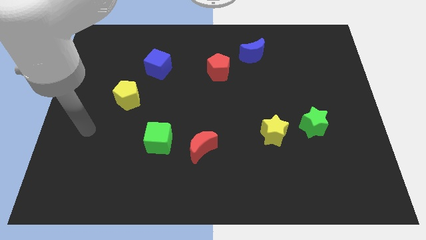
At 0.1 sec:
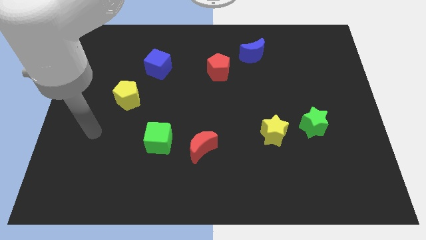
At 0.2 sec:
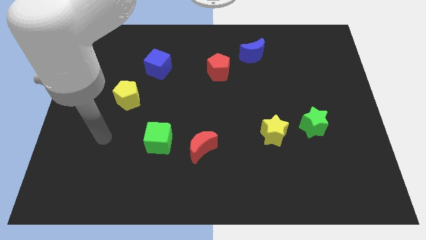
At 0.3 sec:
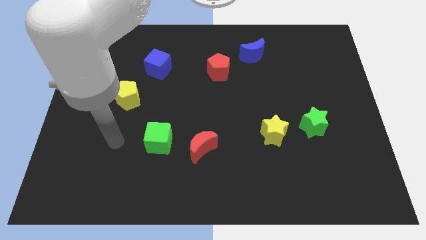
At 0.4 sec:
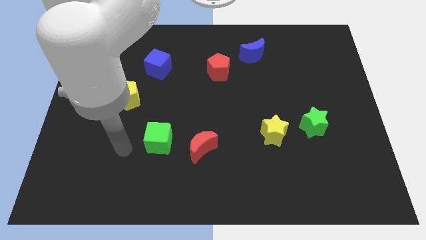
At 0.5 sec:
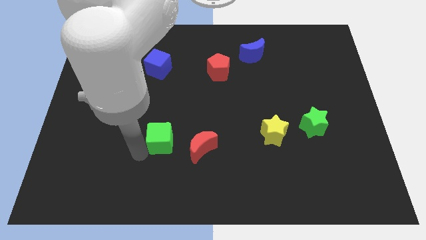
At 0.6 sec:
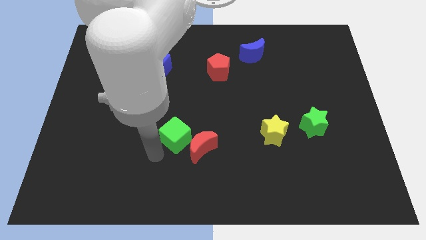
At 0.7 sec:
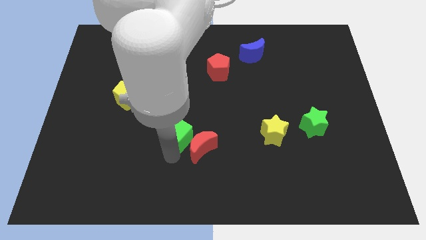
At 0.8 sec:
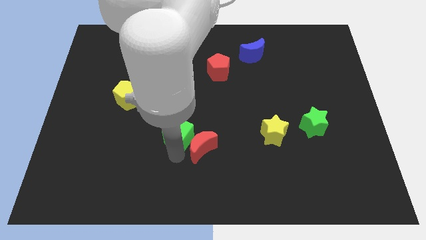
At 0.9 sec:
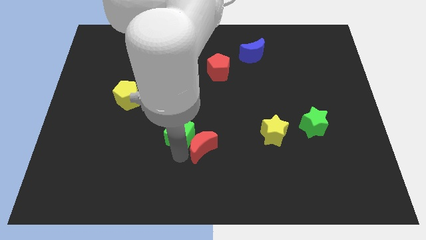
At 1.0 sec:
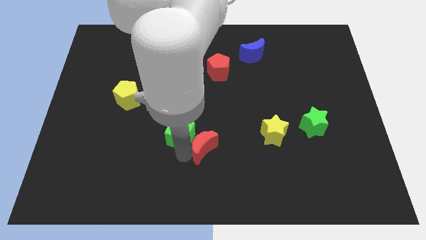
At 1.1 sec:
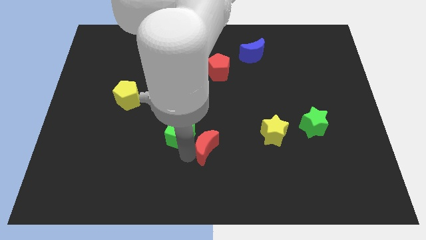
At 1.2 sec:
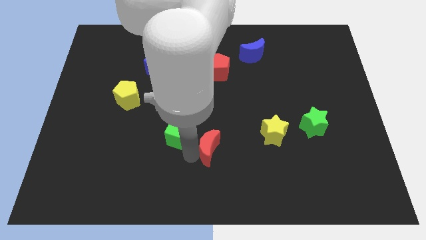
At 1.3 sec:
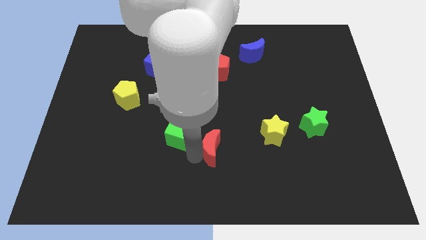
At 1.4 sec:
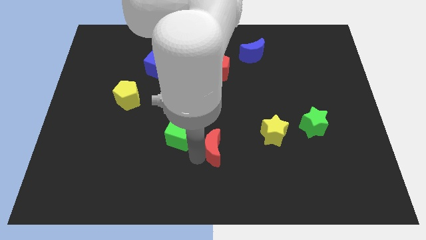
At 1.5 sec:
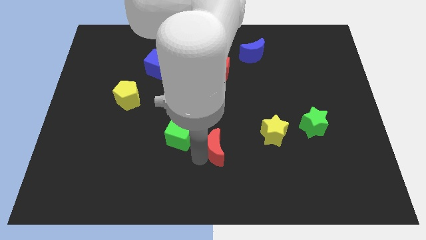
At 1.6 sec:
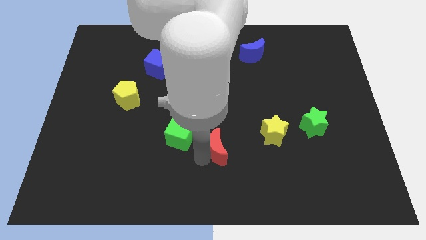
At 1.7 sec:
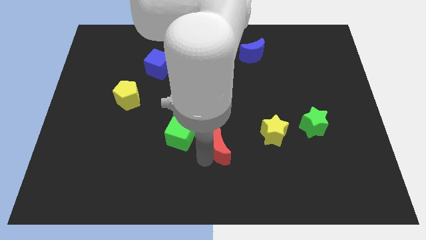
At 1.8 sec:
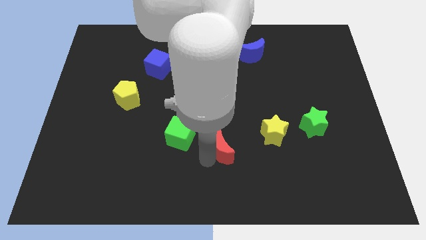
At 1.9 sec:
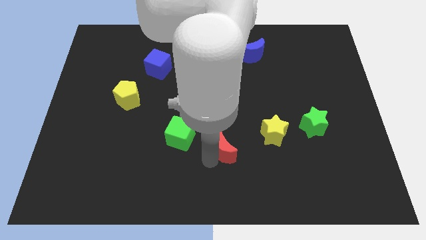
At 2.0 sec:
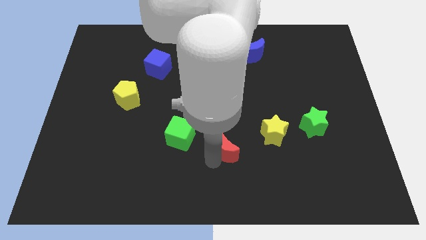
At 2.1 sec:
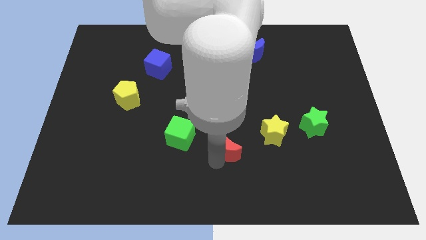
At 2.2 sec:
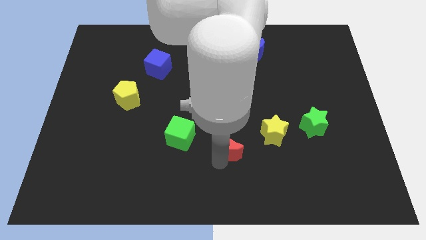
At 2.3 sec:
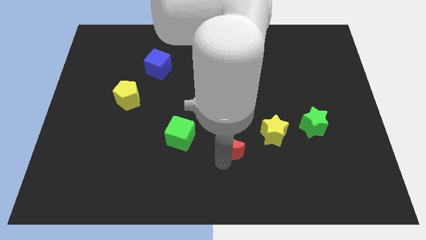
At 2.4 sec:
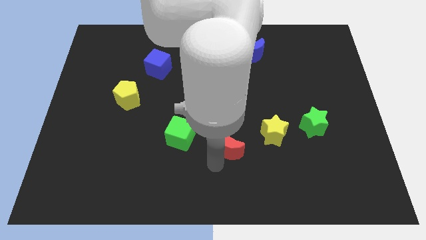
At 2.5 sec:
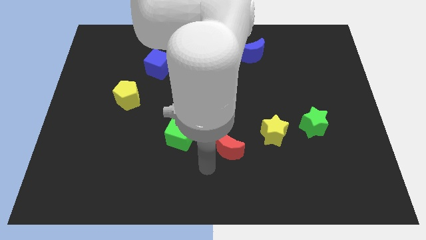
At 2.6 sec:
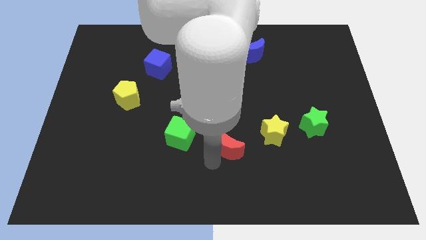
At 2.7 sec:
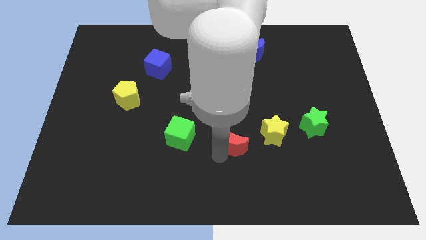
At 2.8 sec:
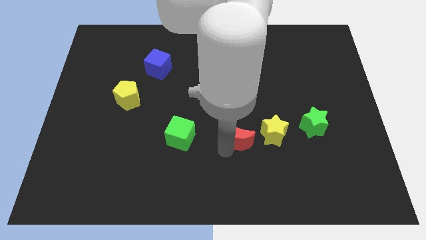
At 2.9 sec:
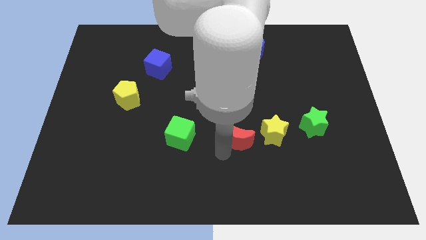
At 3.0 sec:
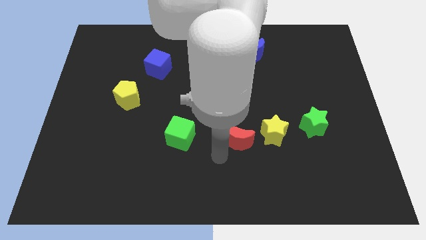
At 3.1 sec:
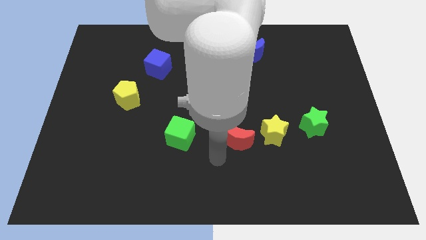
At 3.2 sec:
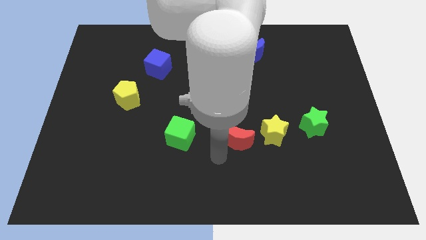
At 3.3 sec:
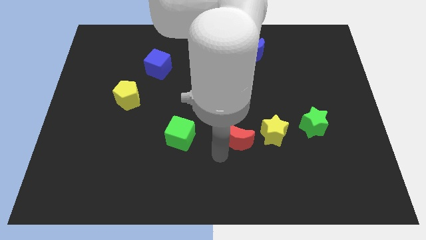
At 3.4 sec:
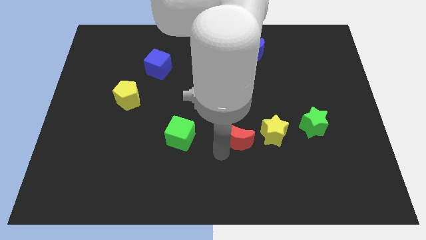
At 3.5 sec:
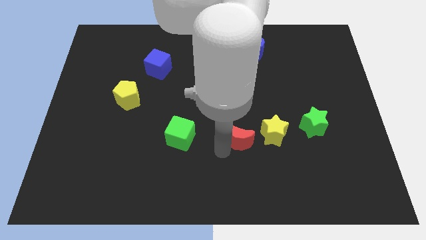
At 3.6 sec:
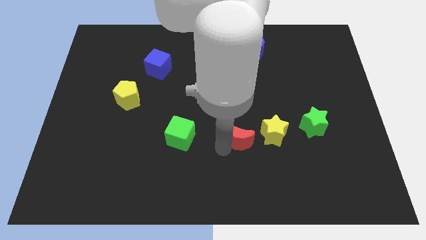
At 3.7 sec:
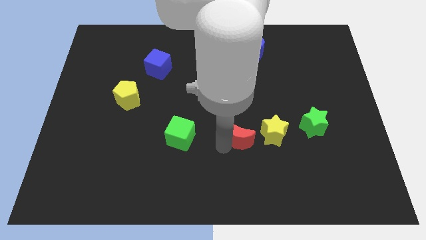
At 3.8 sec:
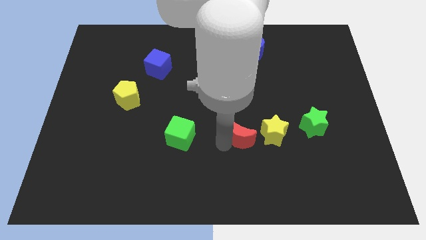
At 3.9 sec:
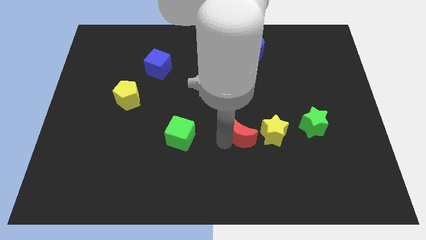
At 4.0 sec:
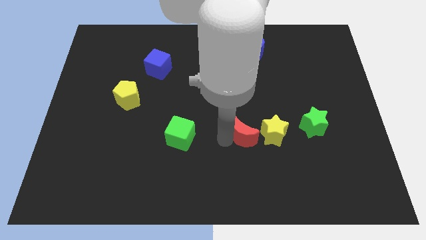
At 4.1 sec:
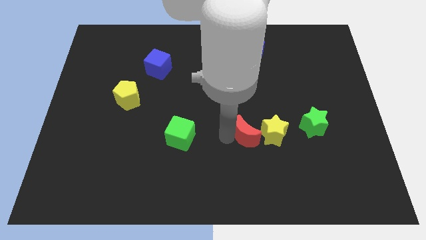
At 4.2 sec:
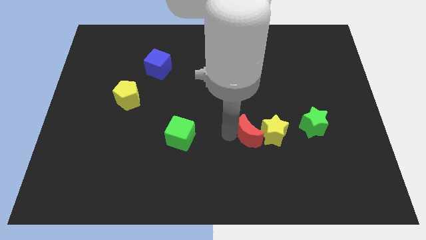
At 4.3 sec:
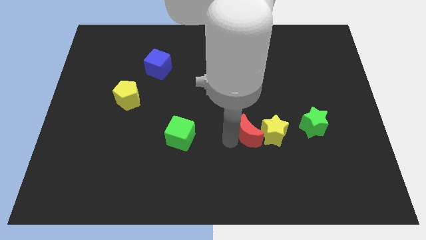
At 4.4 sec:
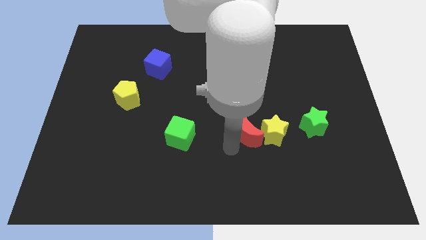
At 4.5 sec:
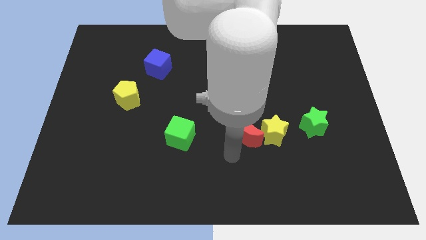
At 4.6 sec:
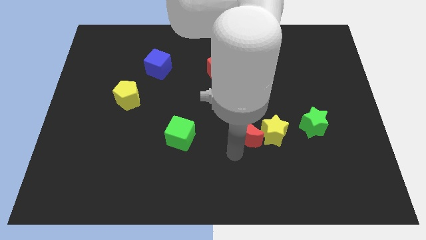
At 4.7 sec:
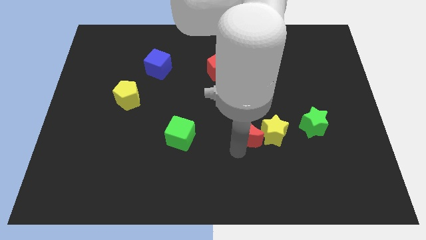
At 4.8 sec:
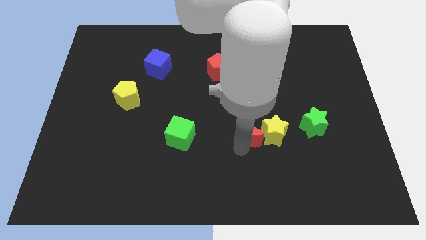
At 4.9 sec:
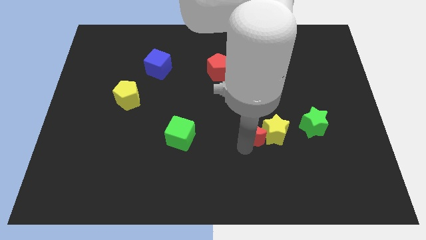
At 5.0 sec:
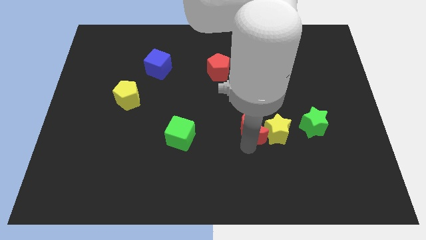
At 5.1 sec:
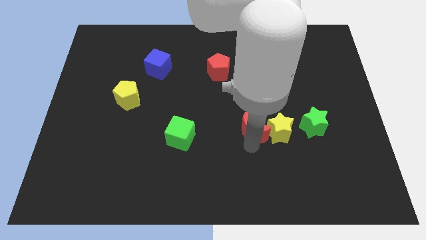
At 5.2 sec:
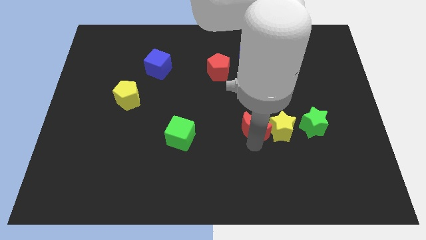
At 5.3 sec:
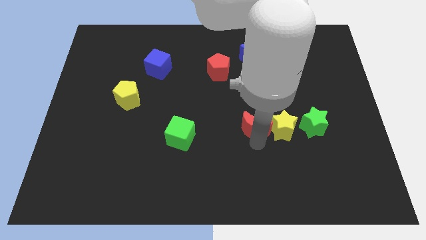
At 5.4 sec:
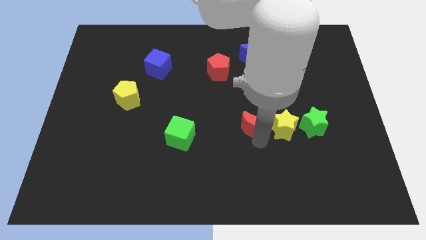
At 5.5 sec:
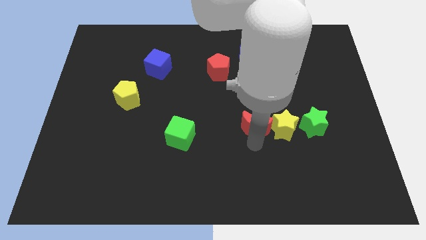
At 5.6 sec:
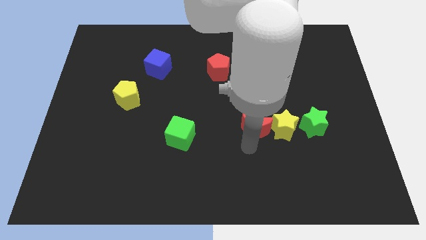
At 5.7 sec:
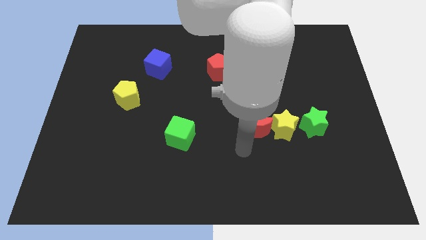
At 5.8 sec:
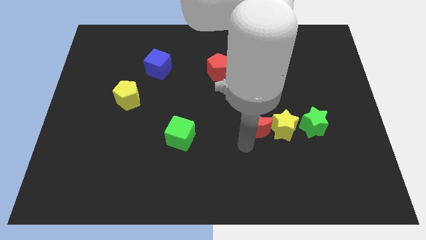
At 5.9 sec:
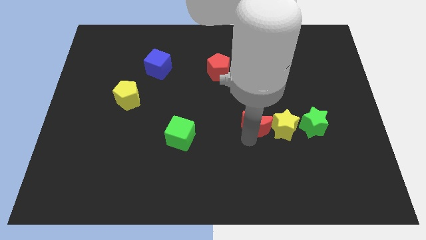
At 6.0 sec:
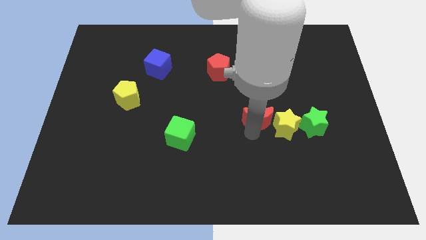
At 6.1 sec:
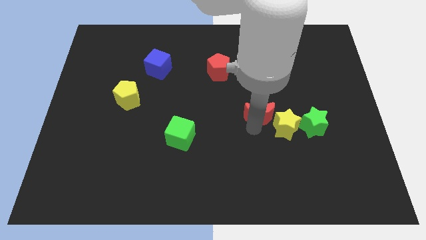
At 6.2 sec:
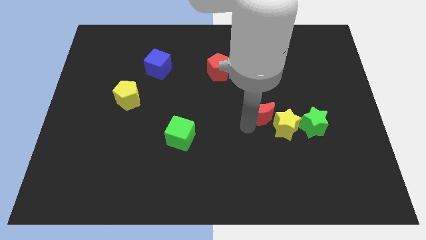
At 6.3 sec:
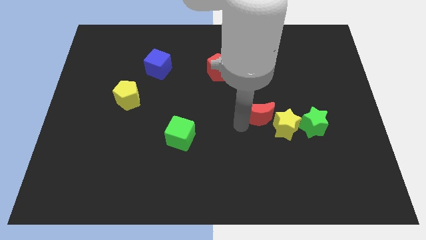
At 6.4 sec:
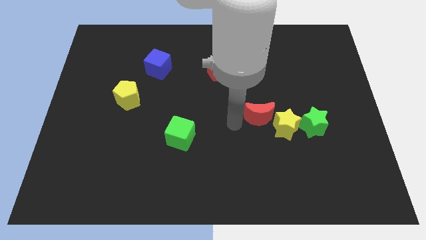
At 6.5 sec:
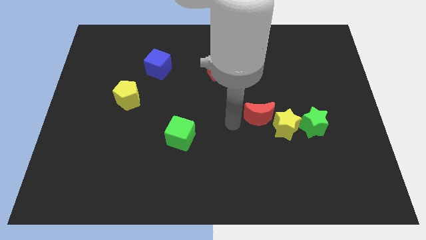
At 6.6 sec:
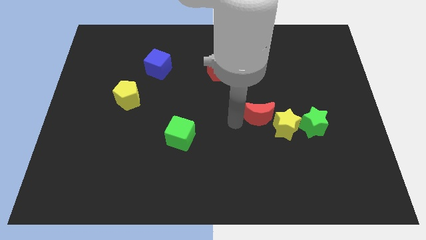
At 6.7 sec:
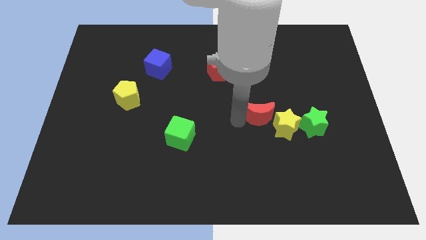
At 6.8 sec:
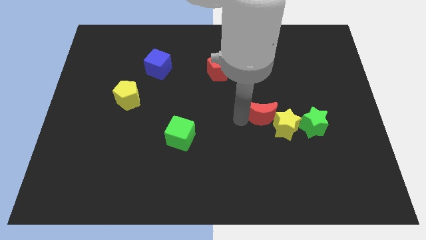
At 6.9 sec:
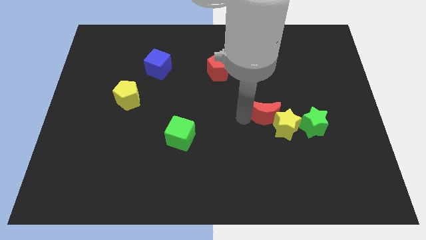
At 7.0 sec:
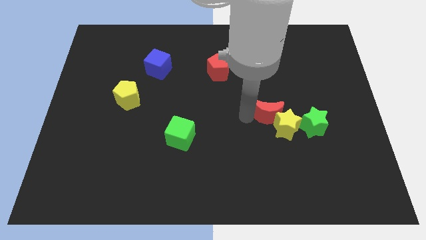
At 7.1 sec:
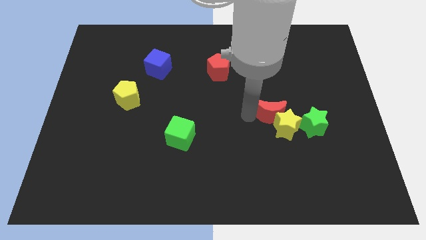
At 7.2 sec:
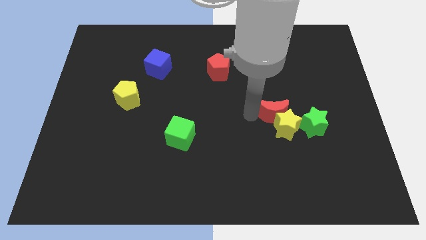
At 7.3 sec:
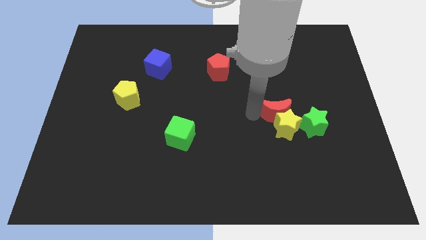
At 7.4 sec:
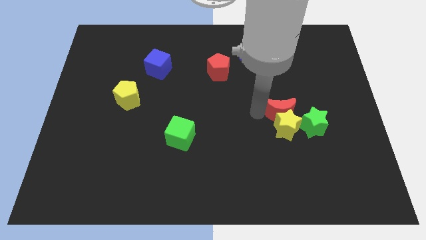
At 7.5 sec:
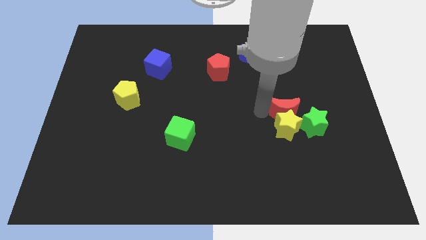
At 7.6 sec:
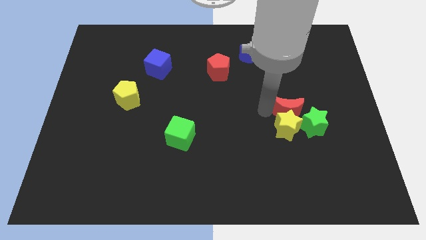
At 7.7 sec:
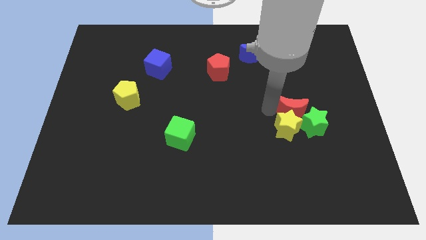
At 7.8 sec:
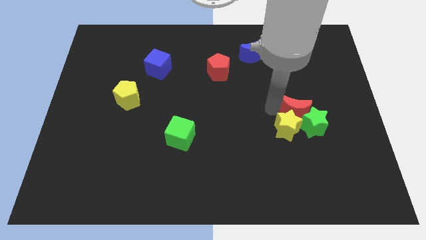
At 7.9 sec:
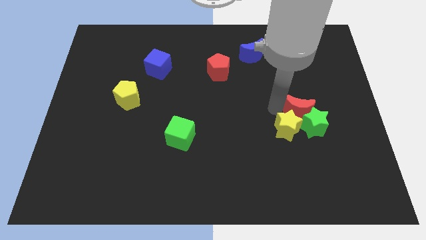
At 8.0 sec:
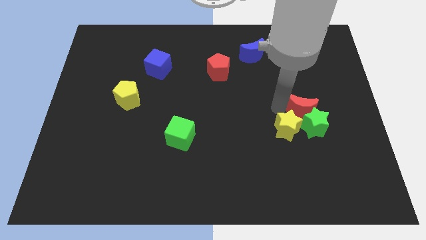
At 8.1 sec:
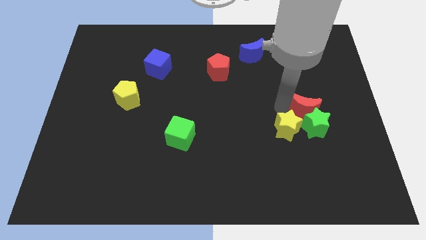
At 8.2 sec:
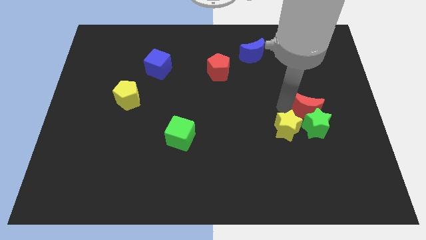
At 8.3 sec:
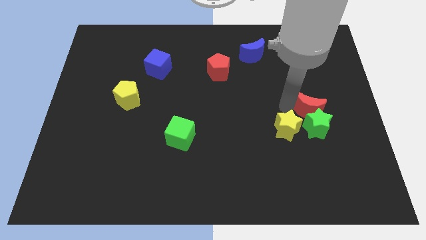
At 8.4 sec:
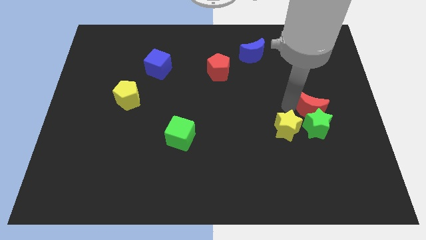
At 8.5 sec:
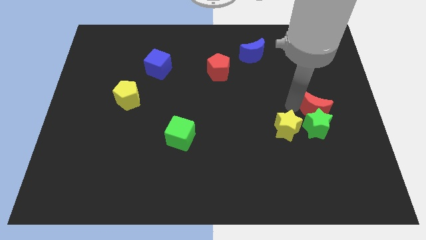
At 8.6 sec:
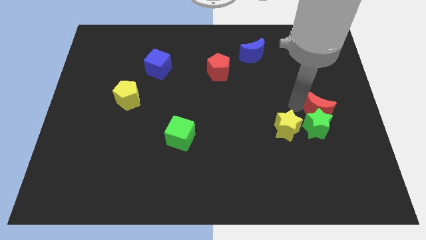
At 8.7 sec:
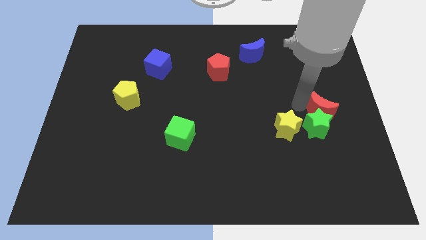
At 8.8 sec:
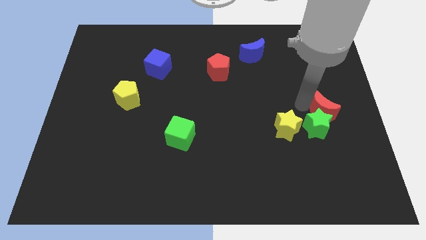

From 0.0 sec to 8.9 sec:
push the red moon to the center right
